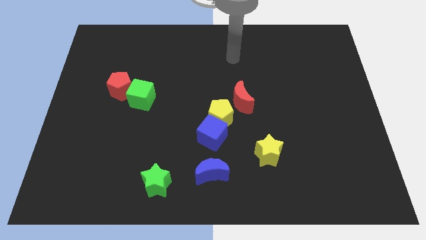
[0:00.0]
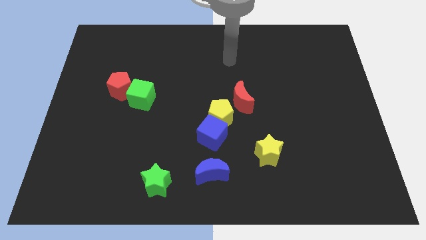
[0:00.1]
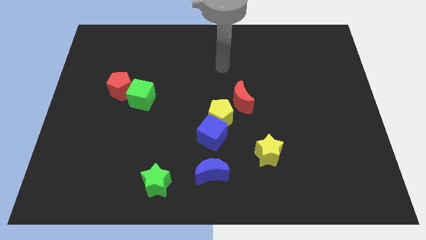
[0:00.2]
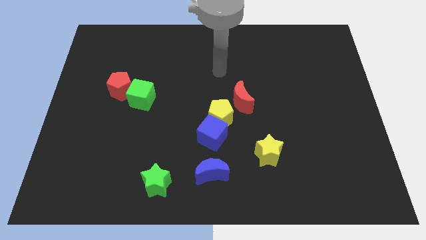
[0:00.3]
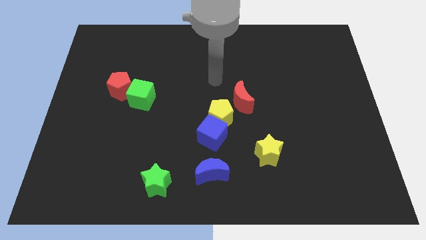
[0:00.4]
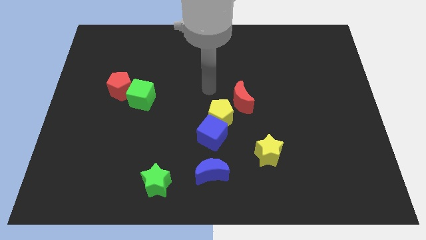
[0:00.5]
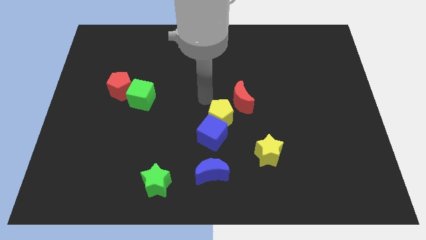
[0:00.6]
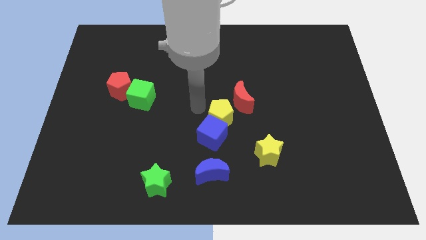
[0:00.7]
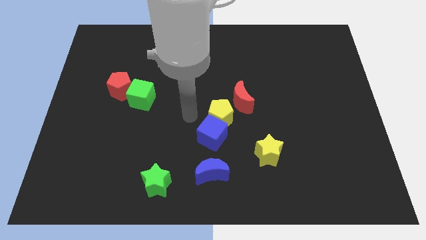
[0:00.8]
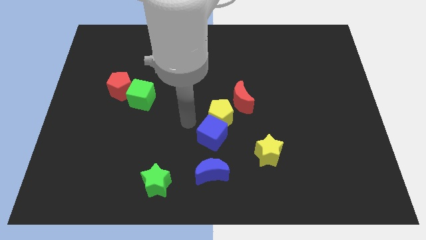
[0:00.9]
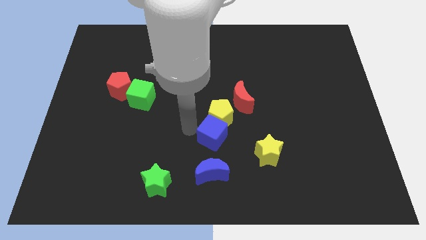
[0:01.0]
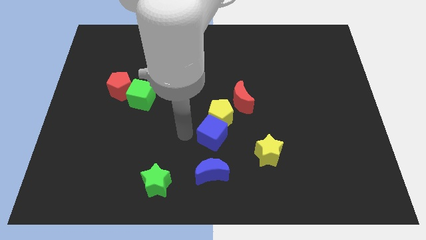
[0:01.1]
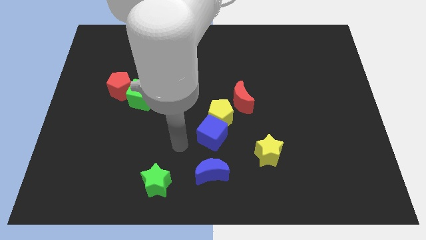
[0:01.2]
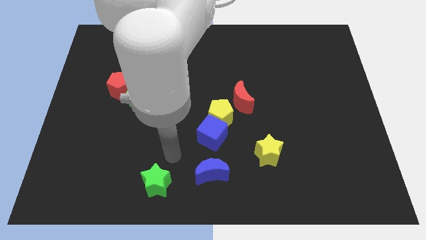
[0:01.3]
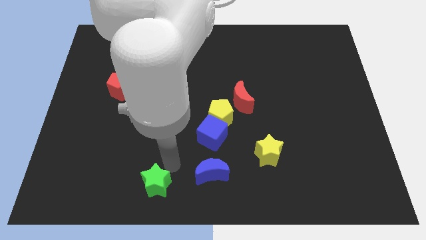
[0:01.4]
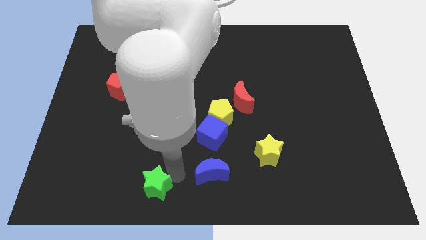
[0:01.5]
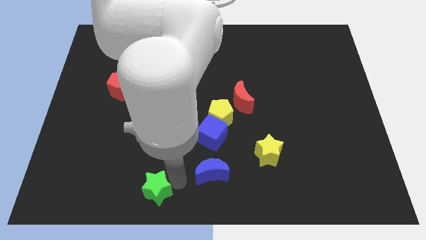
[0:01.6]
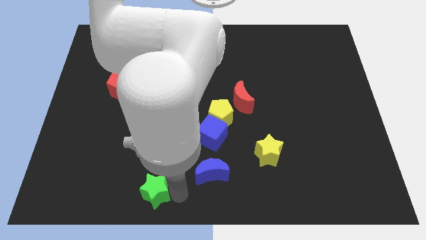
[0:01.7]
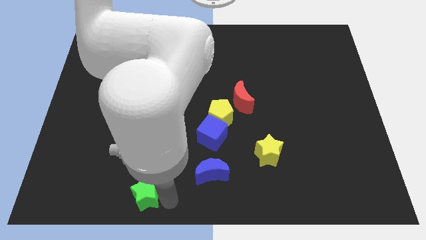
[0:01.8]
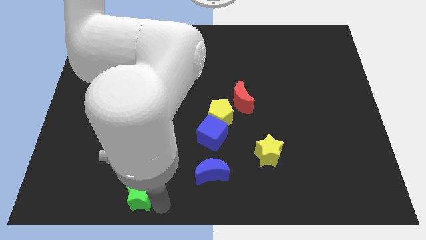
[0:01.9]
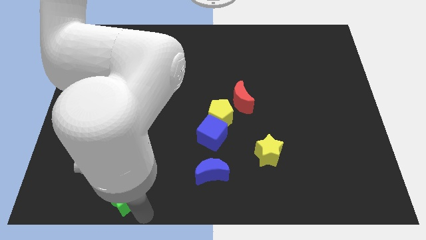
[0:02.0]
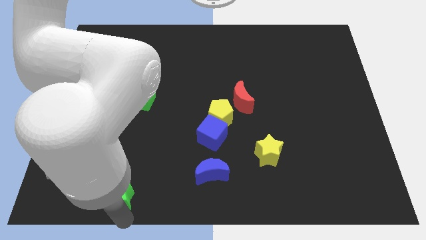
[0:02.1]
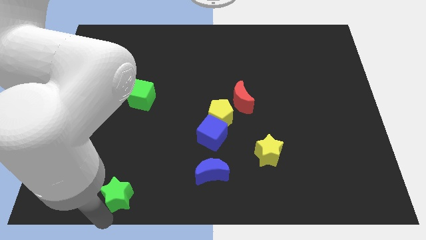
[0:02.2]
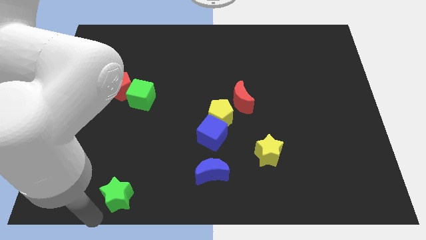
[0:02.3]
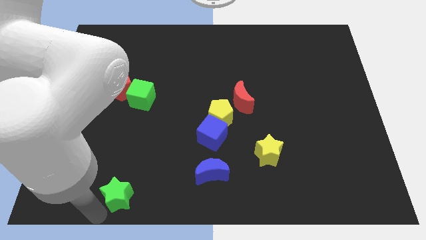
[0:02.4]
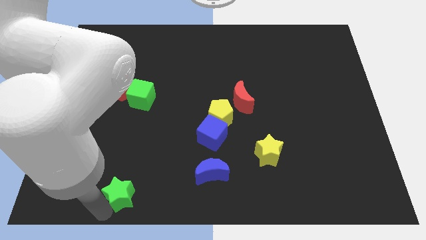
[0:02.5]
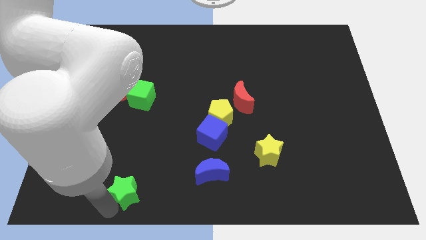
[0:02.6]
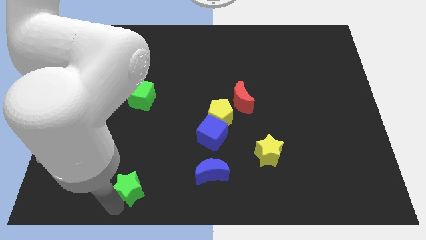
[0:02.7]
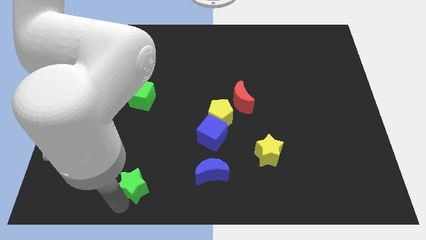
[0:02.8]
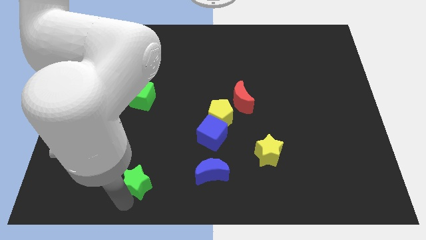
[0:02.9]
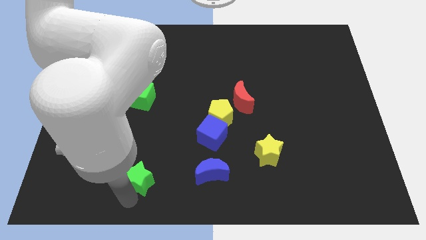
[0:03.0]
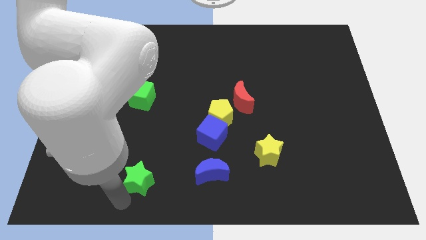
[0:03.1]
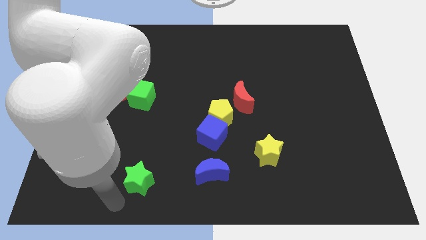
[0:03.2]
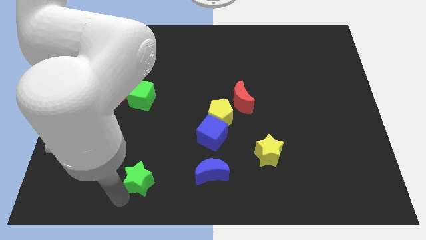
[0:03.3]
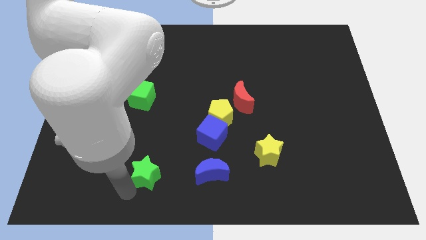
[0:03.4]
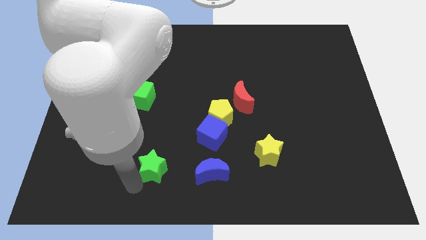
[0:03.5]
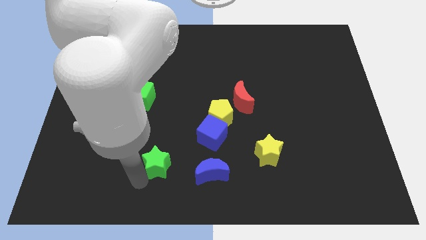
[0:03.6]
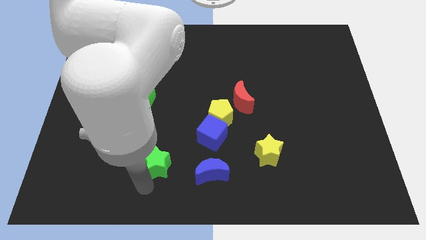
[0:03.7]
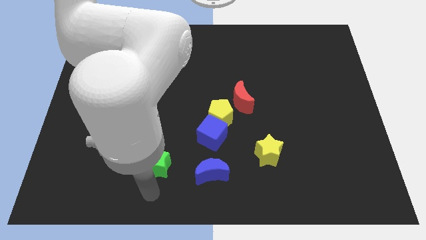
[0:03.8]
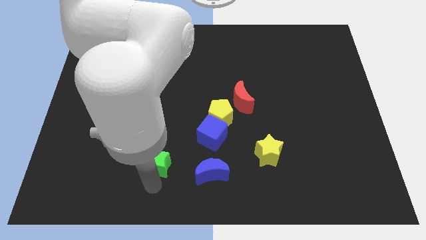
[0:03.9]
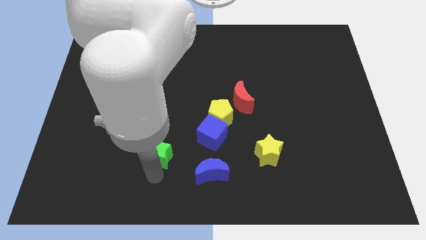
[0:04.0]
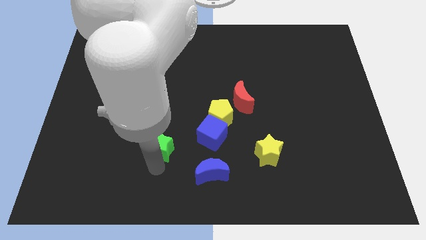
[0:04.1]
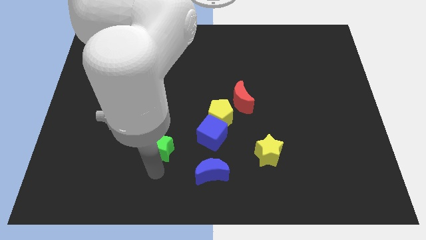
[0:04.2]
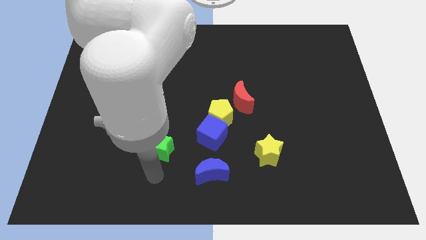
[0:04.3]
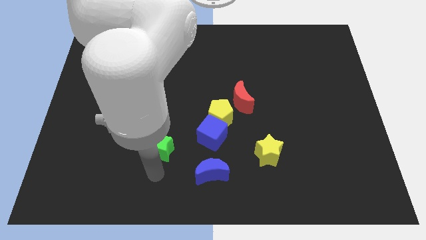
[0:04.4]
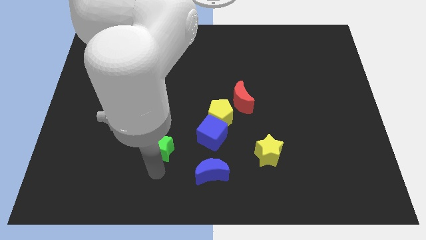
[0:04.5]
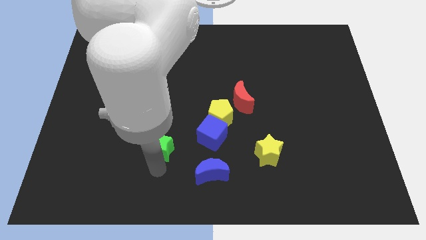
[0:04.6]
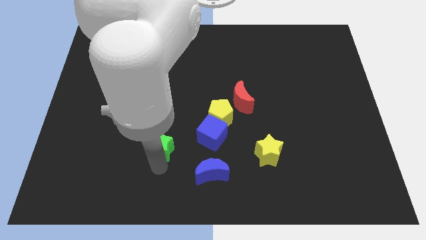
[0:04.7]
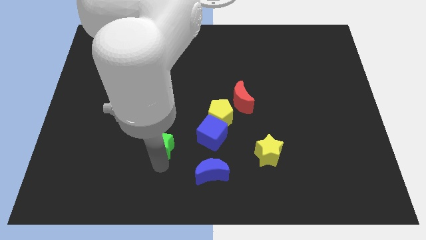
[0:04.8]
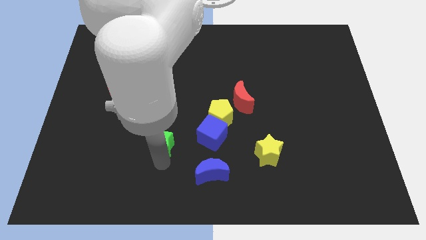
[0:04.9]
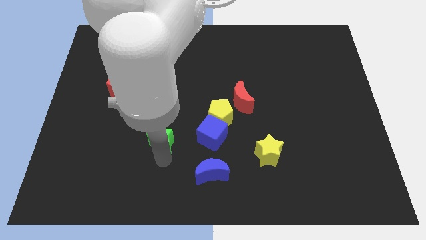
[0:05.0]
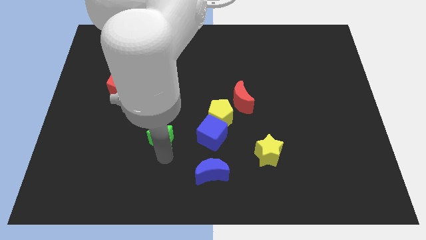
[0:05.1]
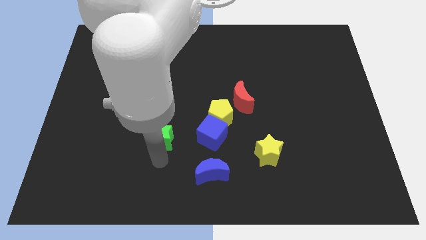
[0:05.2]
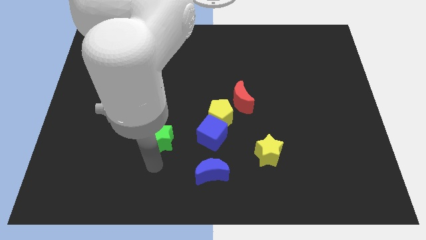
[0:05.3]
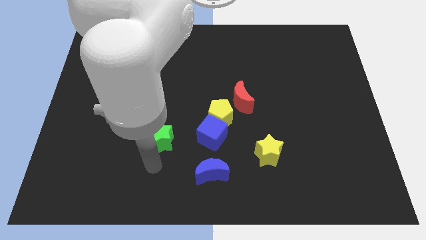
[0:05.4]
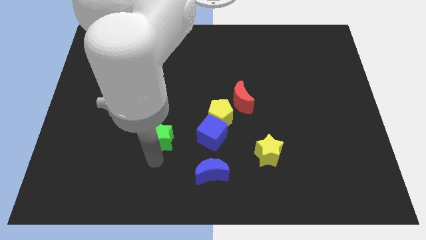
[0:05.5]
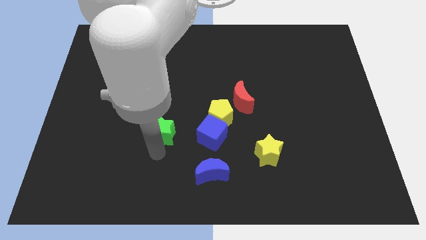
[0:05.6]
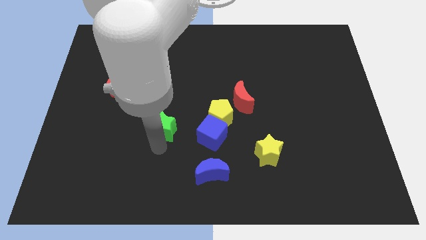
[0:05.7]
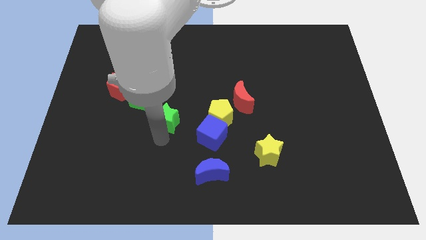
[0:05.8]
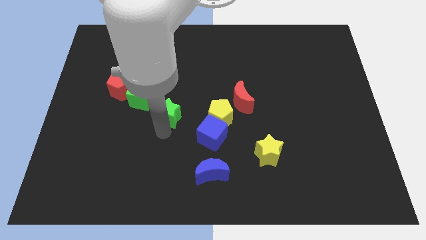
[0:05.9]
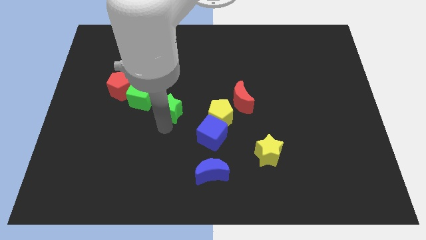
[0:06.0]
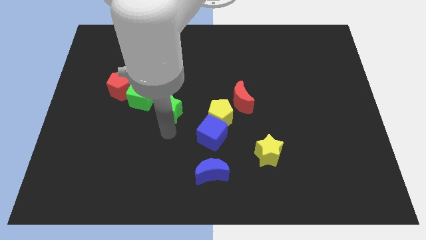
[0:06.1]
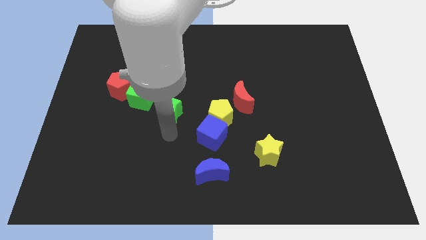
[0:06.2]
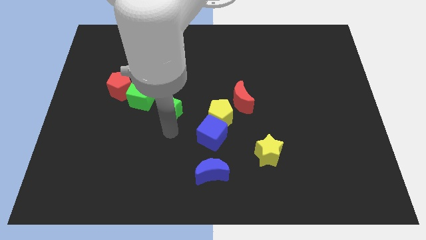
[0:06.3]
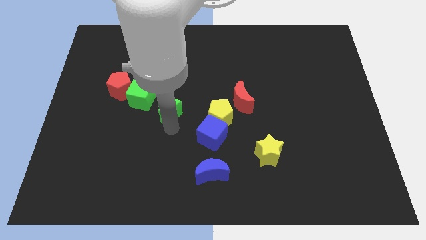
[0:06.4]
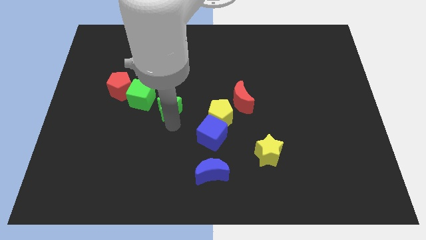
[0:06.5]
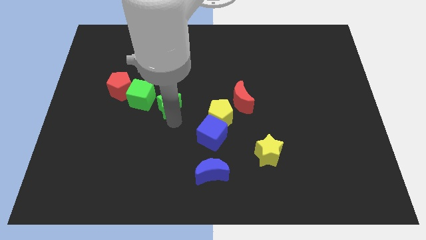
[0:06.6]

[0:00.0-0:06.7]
move the green star upwards
